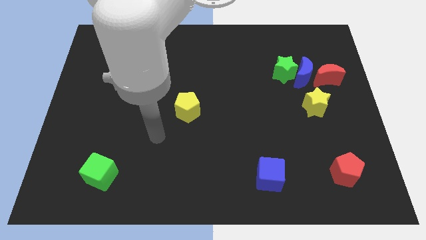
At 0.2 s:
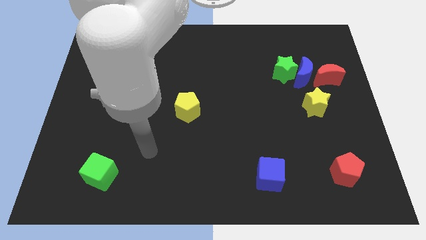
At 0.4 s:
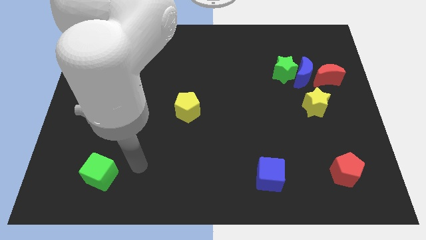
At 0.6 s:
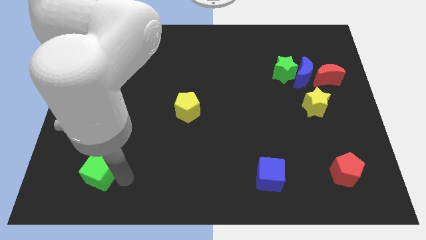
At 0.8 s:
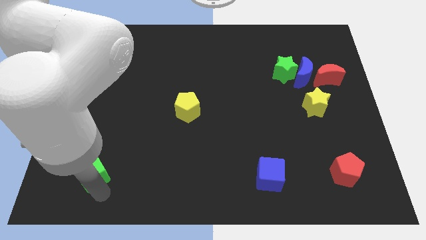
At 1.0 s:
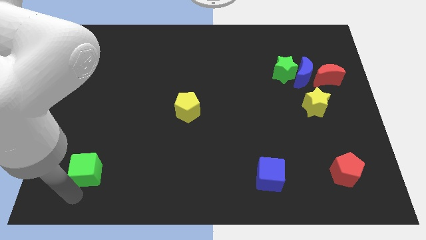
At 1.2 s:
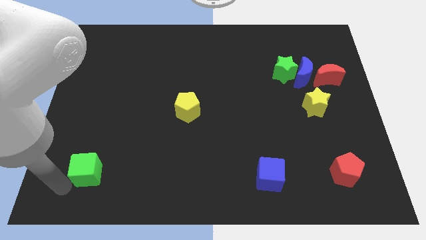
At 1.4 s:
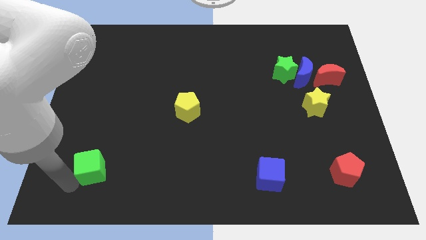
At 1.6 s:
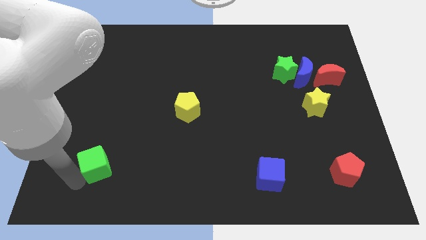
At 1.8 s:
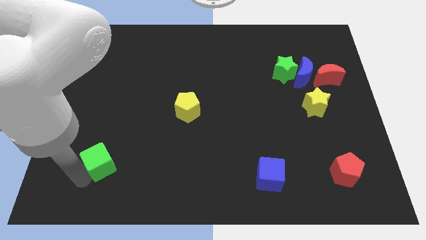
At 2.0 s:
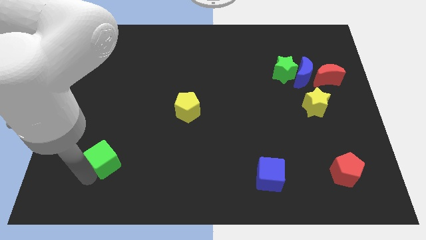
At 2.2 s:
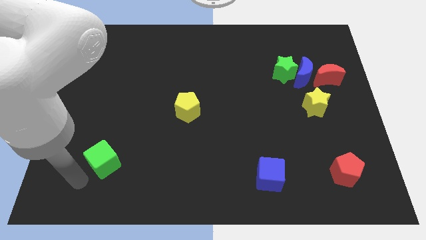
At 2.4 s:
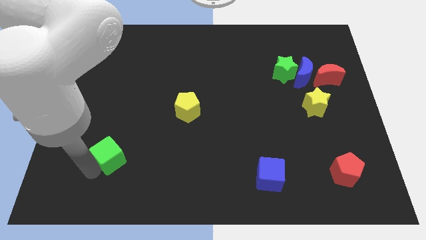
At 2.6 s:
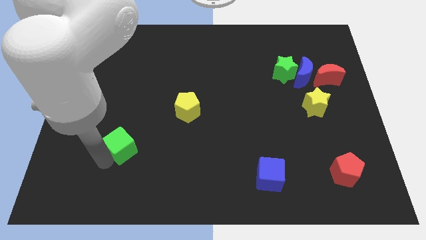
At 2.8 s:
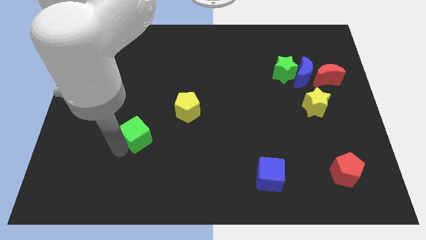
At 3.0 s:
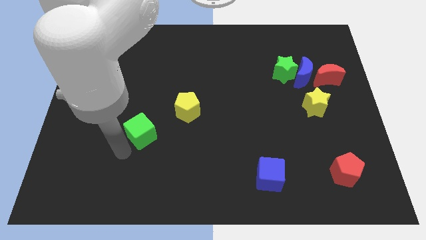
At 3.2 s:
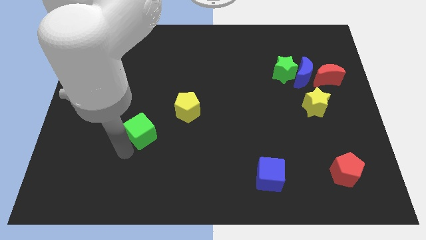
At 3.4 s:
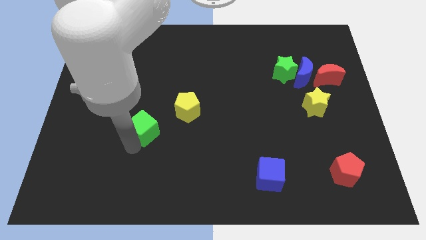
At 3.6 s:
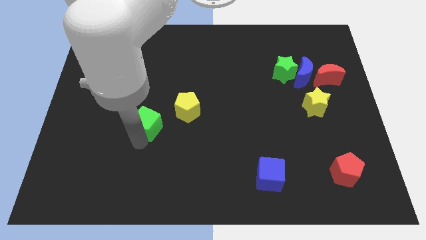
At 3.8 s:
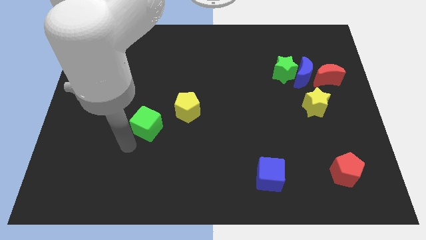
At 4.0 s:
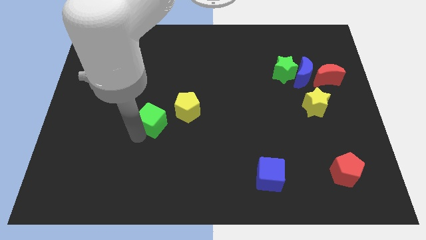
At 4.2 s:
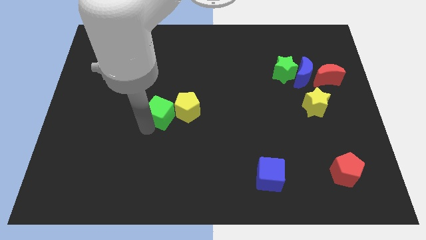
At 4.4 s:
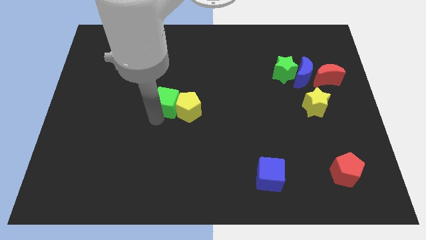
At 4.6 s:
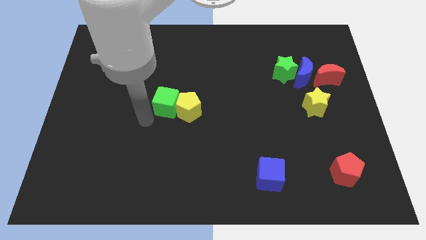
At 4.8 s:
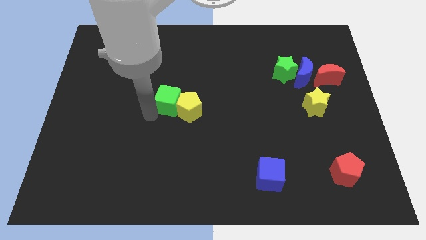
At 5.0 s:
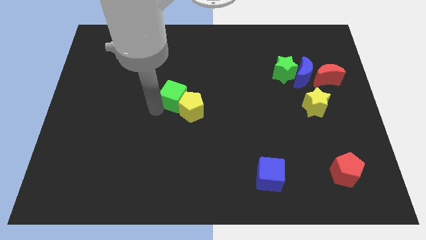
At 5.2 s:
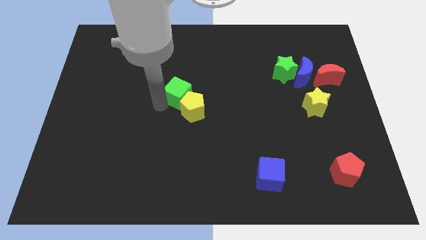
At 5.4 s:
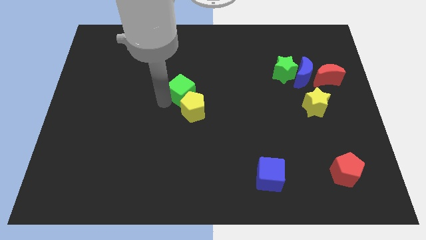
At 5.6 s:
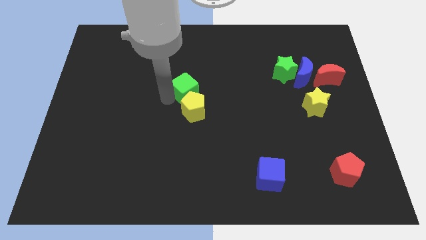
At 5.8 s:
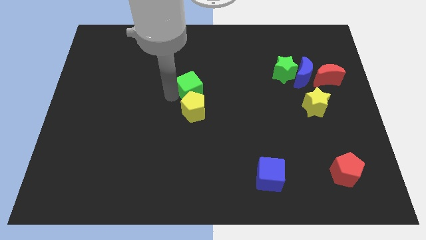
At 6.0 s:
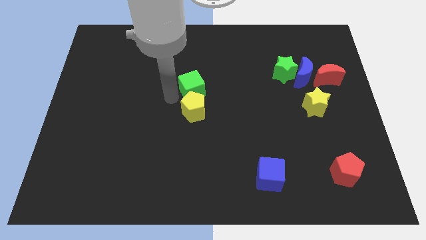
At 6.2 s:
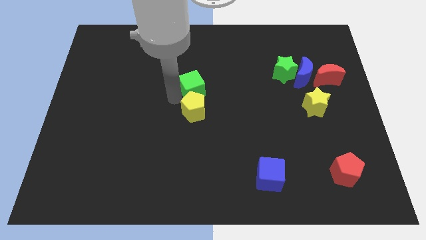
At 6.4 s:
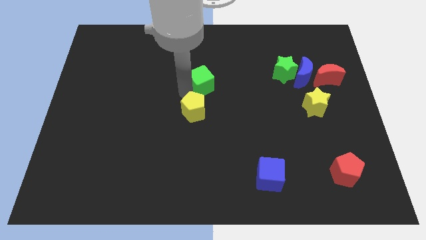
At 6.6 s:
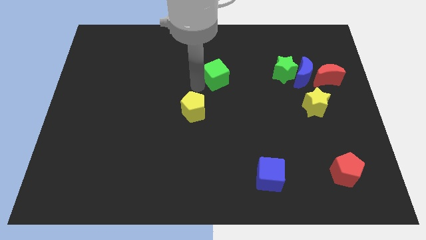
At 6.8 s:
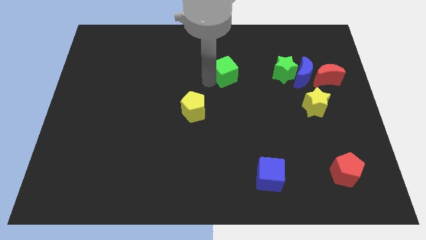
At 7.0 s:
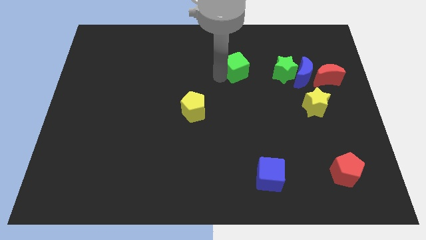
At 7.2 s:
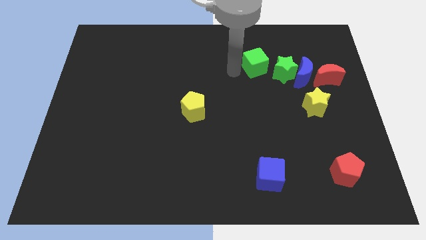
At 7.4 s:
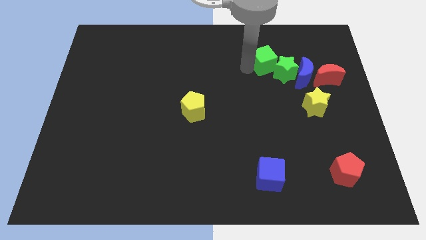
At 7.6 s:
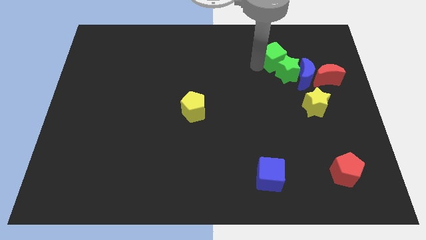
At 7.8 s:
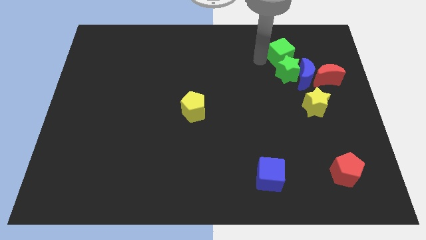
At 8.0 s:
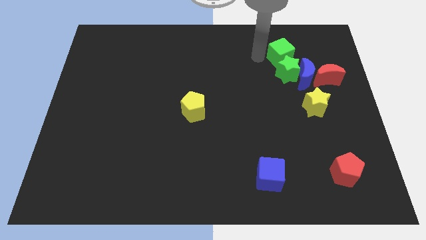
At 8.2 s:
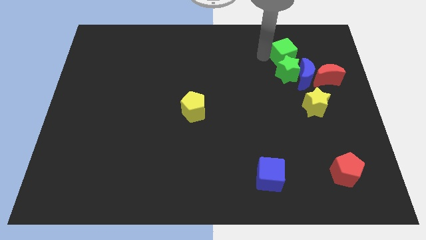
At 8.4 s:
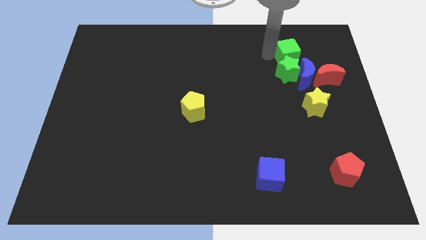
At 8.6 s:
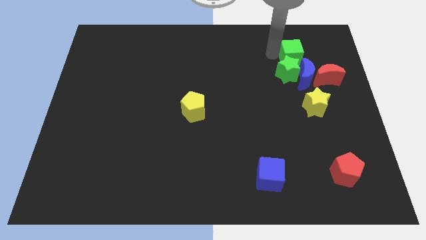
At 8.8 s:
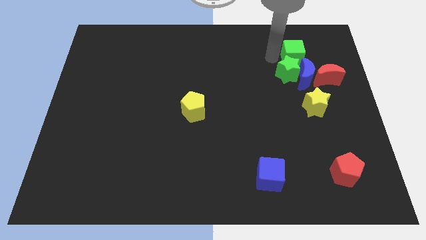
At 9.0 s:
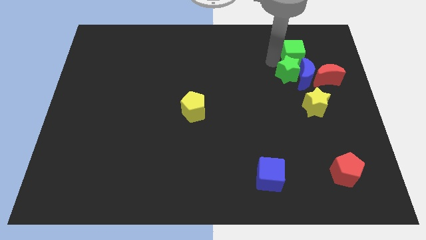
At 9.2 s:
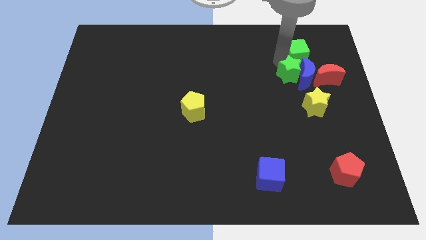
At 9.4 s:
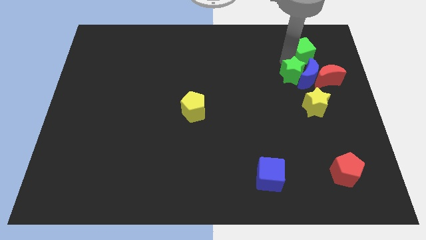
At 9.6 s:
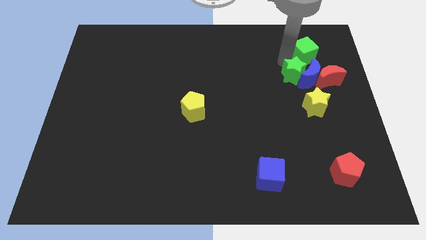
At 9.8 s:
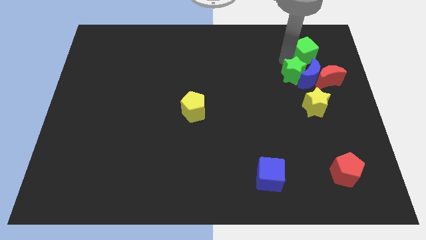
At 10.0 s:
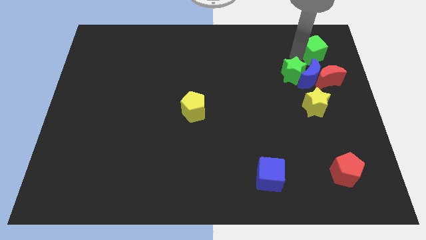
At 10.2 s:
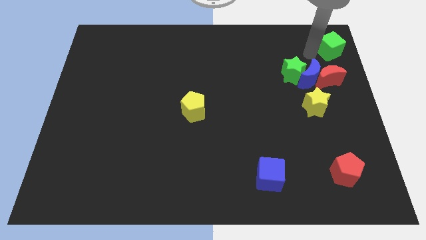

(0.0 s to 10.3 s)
push the green cube to the top right corner
